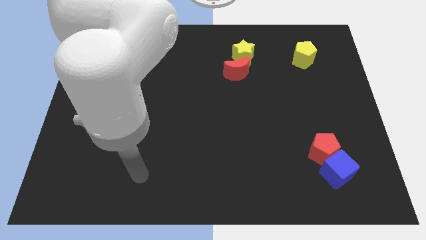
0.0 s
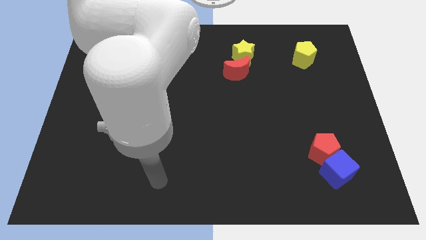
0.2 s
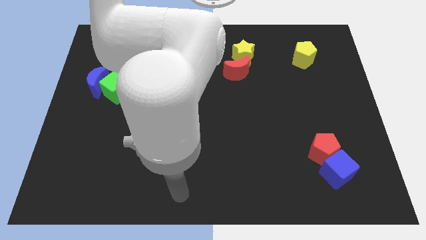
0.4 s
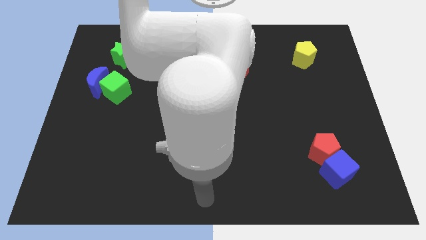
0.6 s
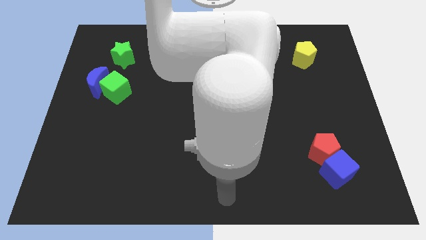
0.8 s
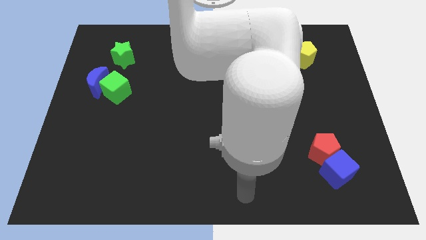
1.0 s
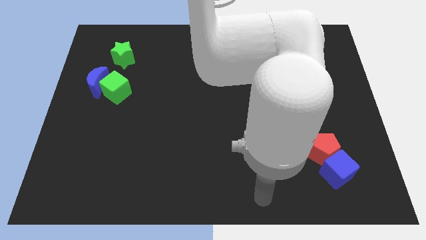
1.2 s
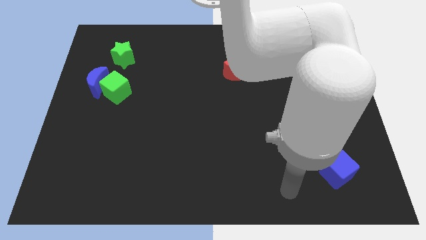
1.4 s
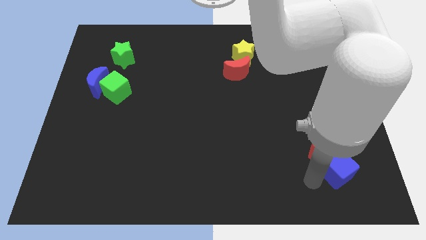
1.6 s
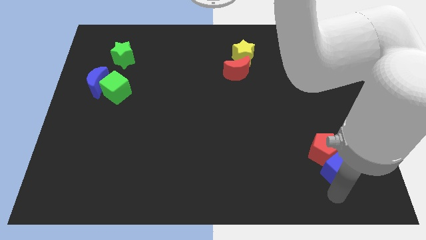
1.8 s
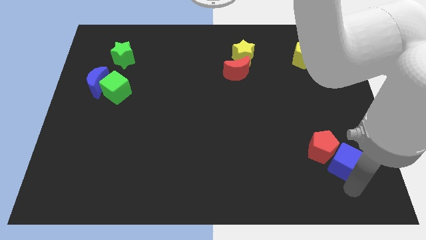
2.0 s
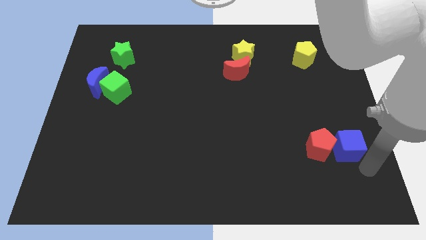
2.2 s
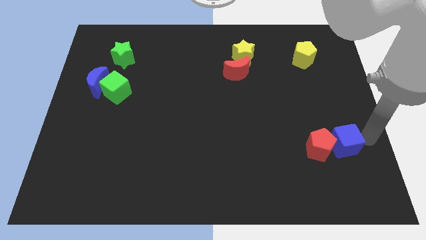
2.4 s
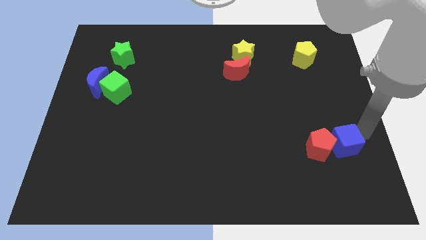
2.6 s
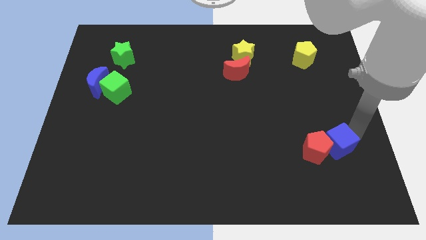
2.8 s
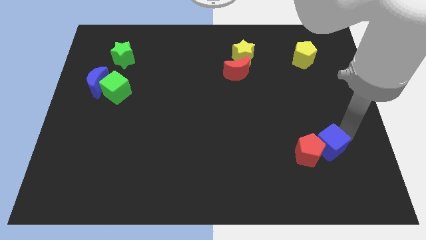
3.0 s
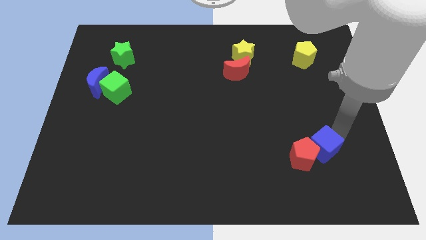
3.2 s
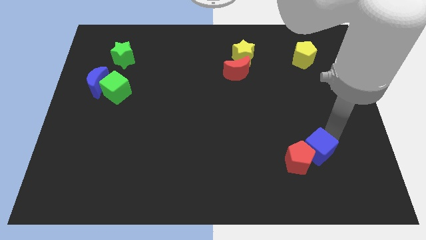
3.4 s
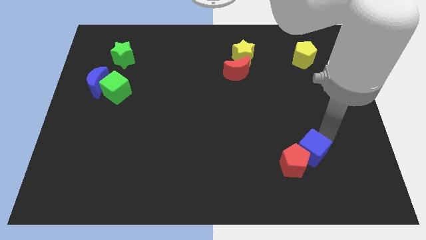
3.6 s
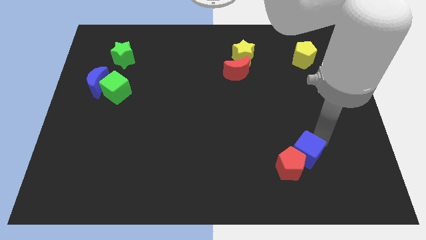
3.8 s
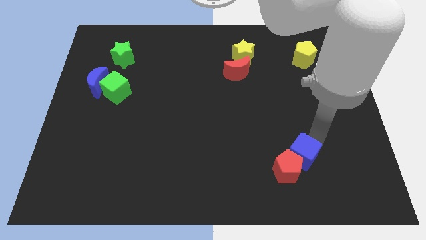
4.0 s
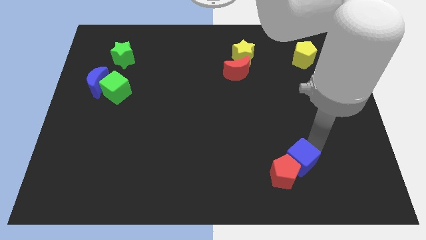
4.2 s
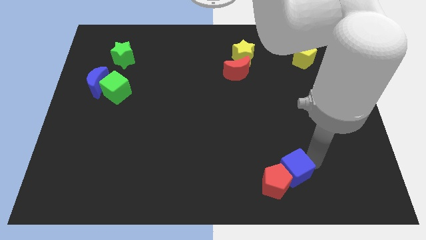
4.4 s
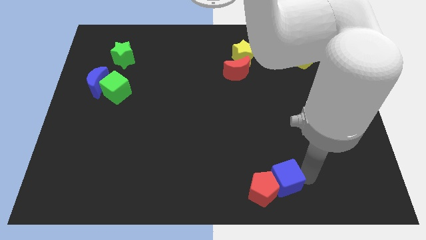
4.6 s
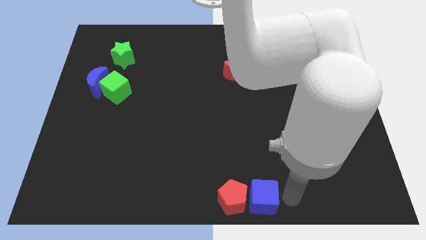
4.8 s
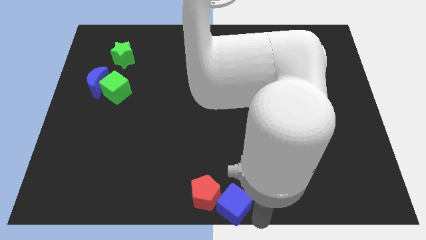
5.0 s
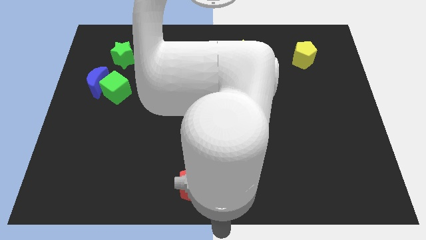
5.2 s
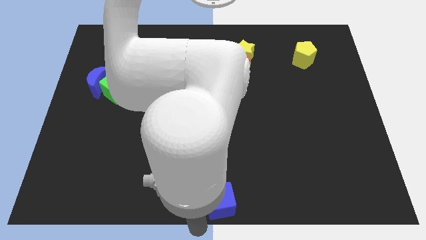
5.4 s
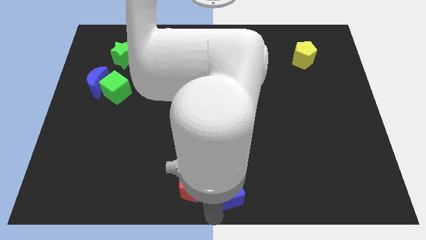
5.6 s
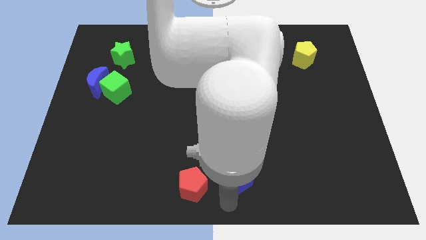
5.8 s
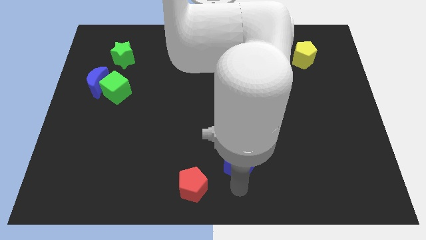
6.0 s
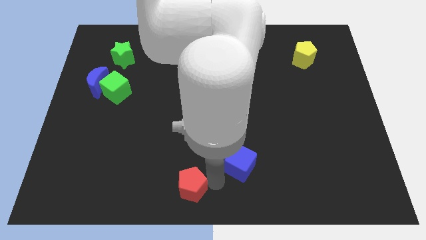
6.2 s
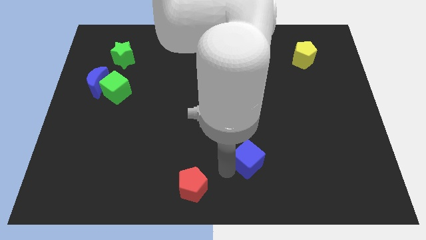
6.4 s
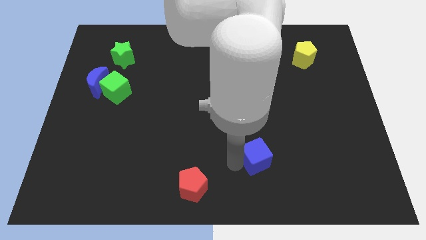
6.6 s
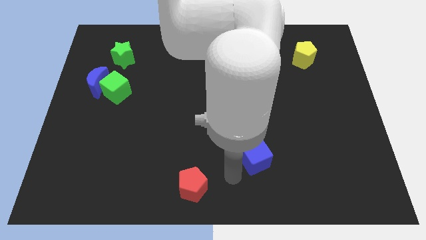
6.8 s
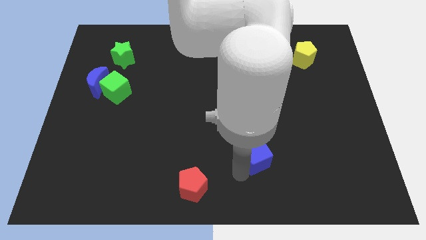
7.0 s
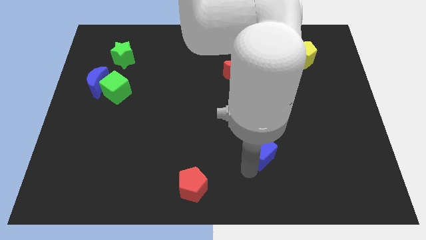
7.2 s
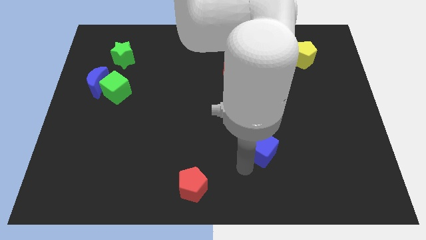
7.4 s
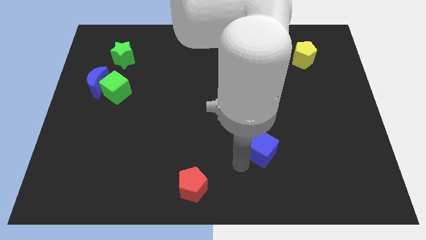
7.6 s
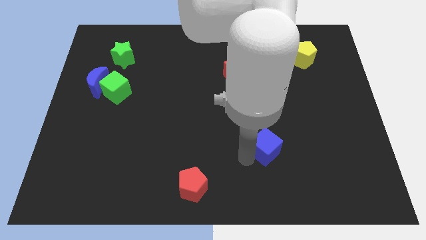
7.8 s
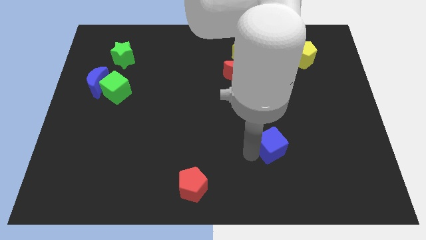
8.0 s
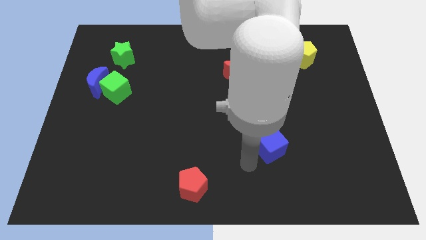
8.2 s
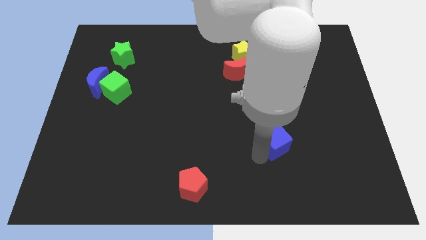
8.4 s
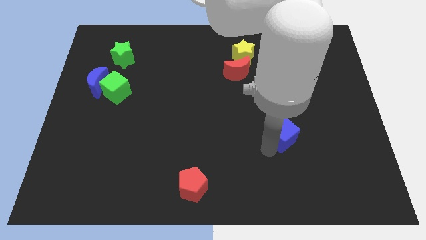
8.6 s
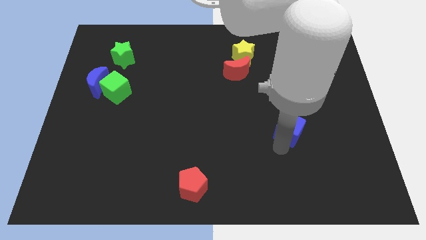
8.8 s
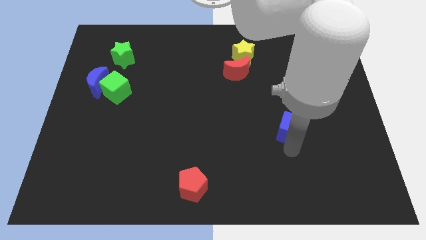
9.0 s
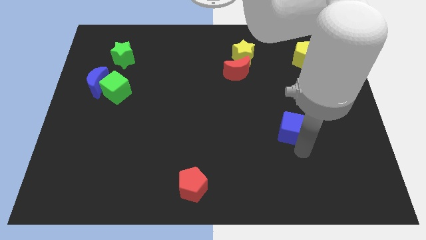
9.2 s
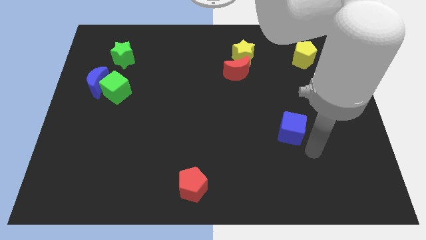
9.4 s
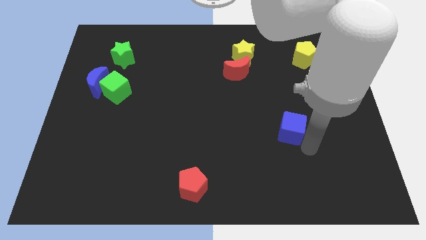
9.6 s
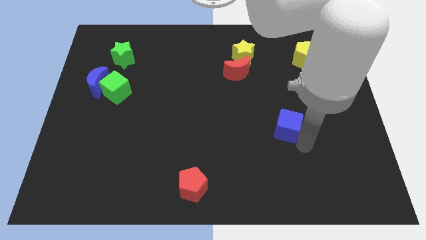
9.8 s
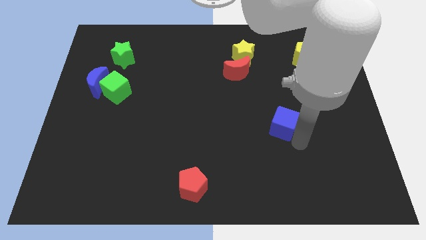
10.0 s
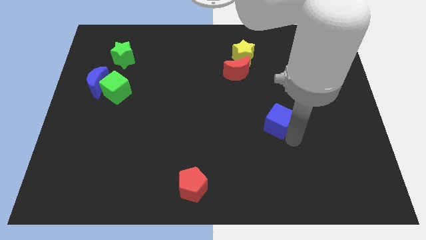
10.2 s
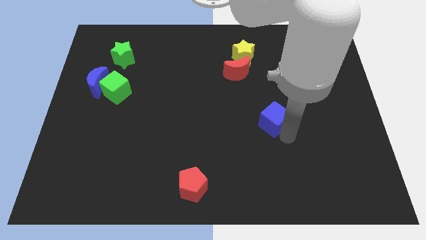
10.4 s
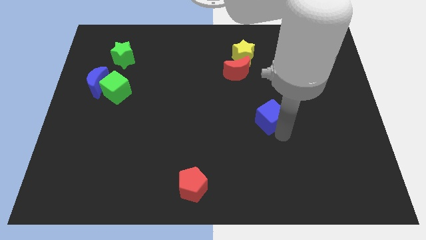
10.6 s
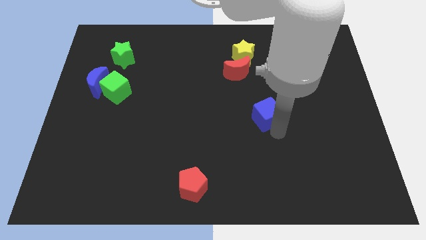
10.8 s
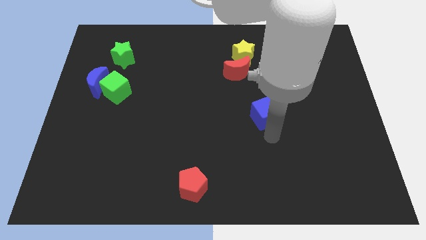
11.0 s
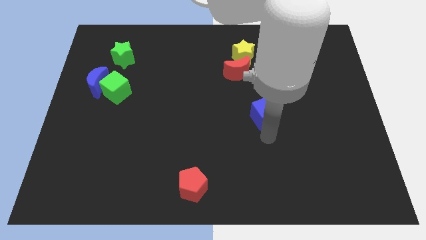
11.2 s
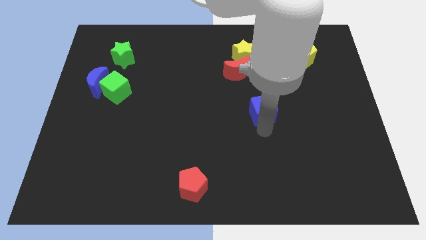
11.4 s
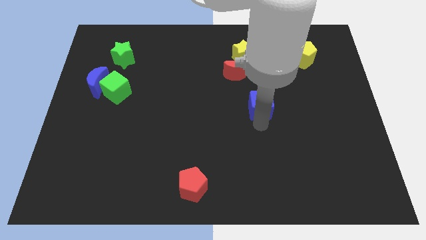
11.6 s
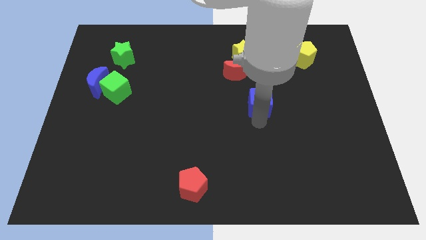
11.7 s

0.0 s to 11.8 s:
slide the blue cube to the bottom right side of the red moon

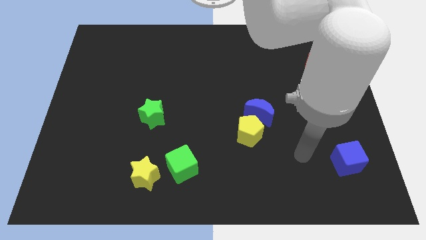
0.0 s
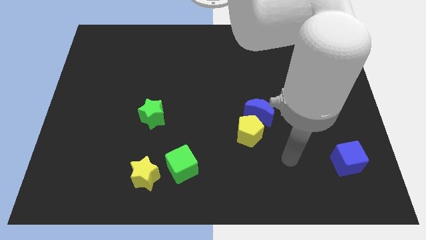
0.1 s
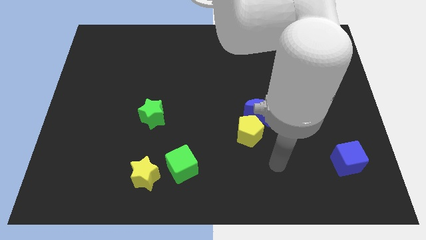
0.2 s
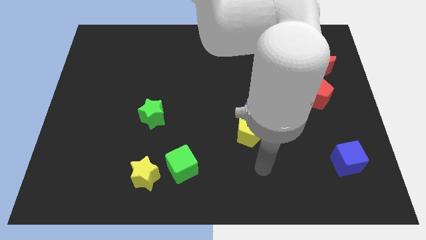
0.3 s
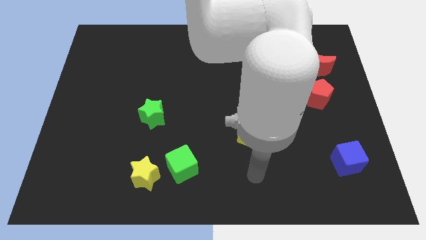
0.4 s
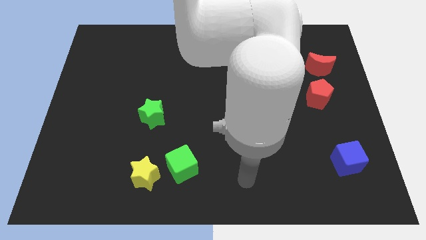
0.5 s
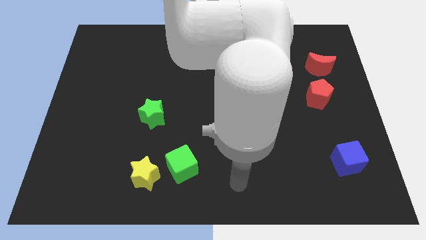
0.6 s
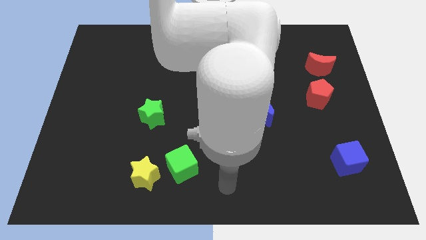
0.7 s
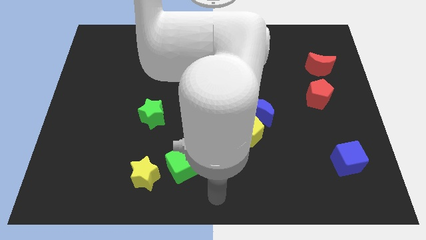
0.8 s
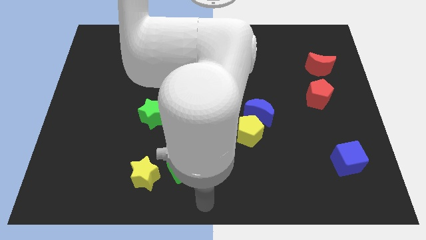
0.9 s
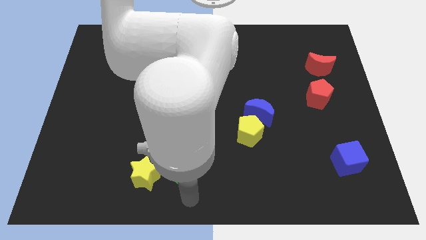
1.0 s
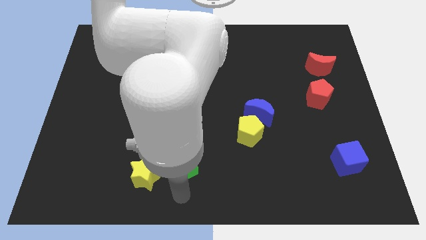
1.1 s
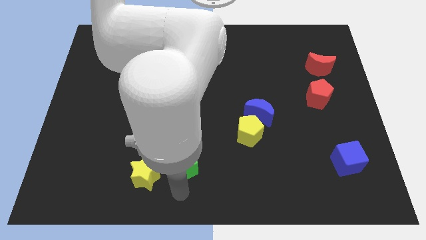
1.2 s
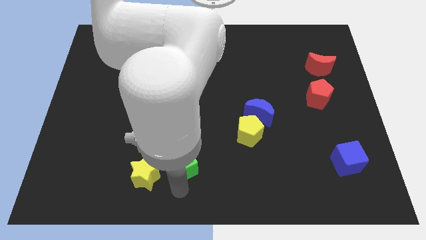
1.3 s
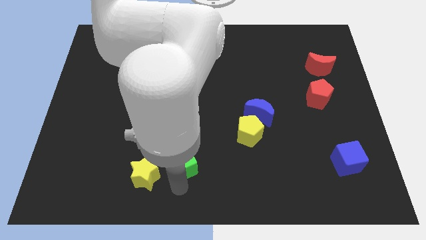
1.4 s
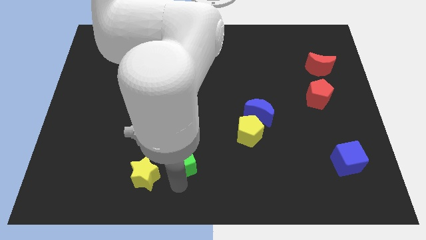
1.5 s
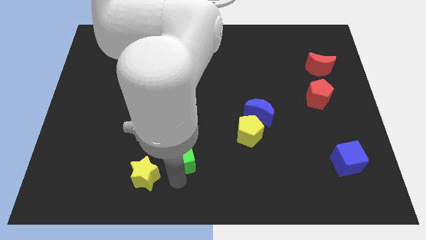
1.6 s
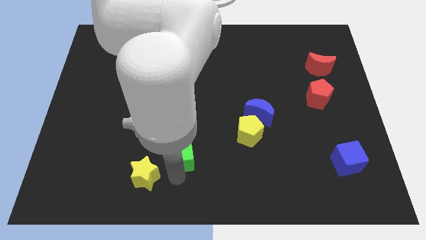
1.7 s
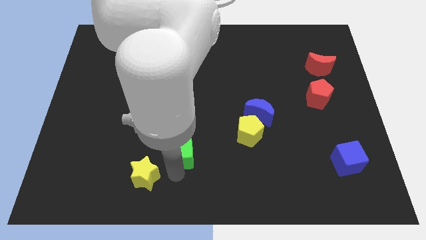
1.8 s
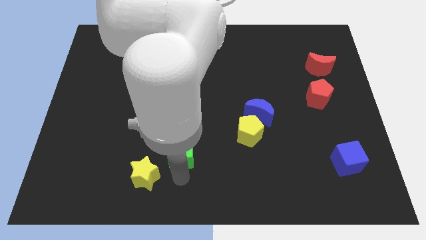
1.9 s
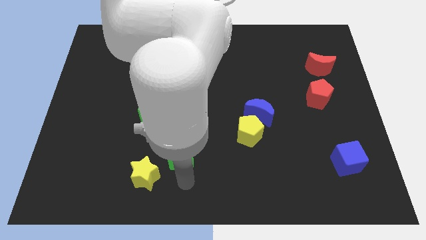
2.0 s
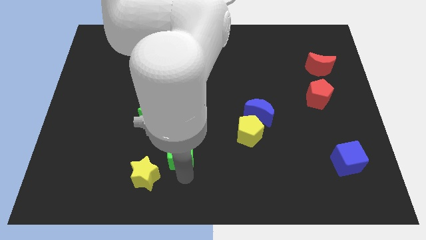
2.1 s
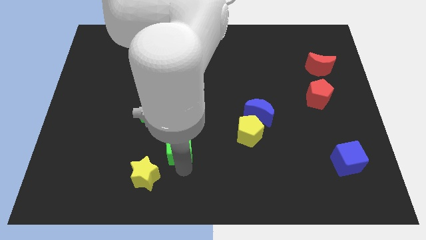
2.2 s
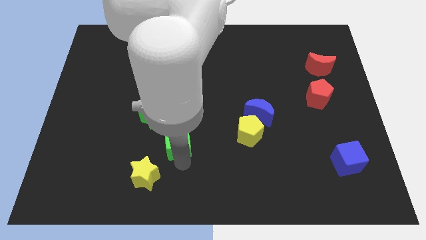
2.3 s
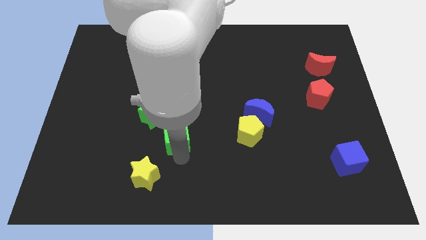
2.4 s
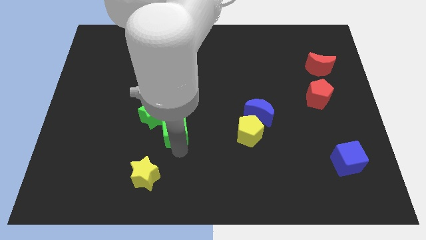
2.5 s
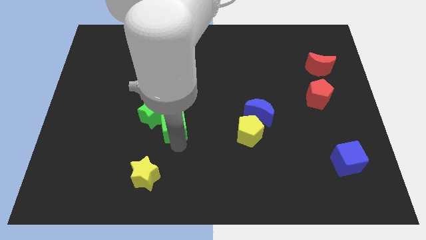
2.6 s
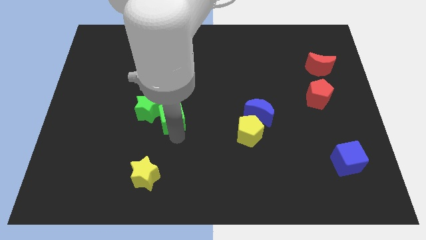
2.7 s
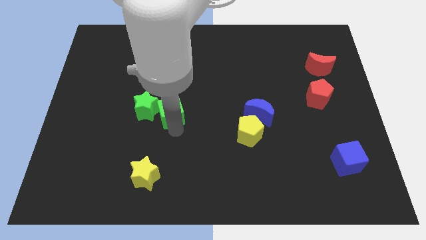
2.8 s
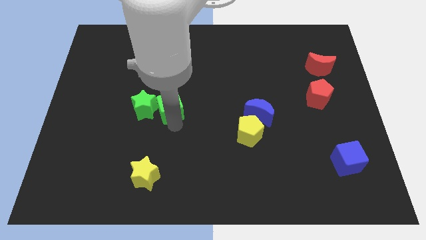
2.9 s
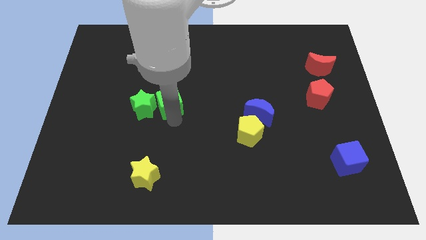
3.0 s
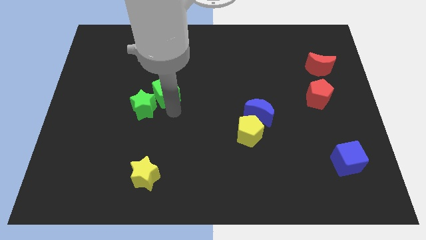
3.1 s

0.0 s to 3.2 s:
slide the green cube to the top side of the green star
